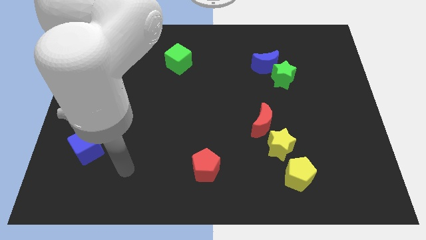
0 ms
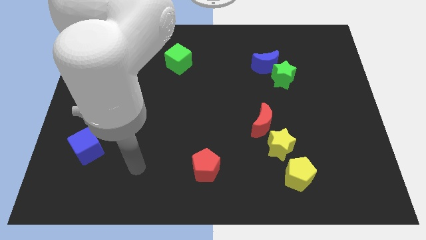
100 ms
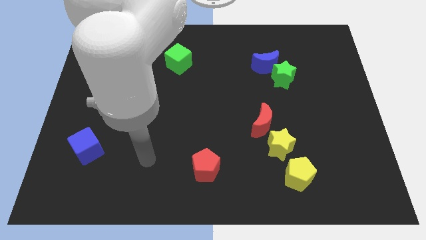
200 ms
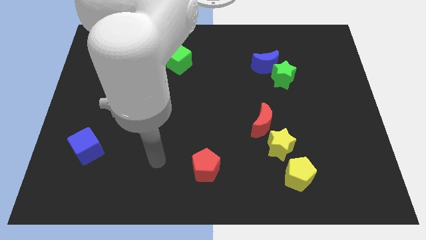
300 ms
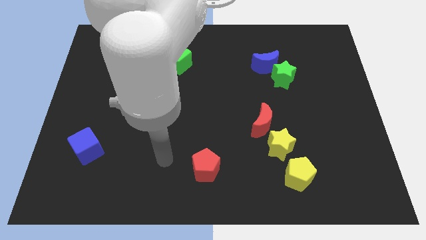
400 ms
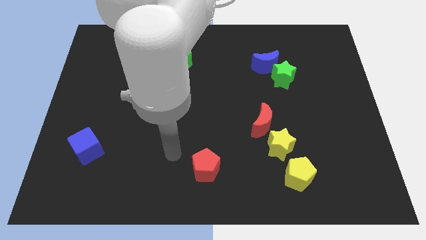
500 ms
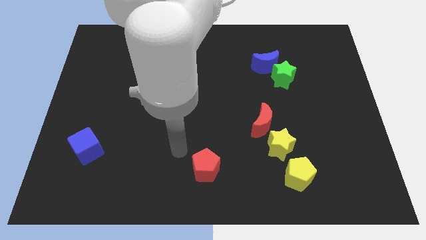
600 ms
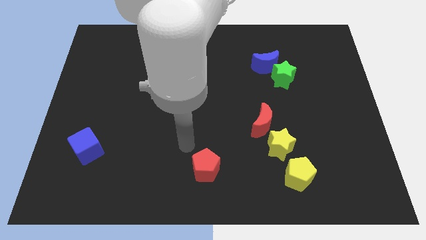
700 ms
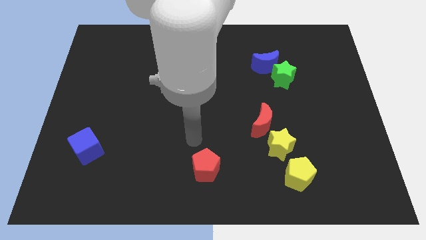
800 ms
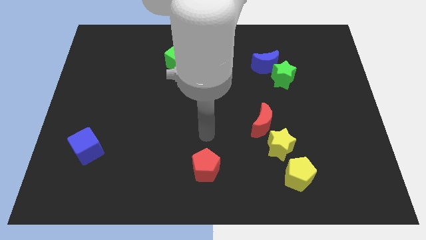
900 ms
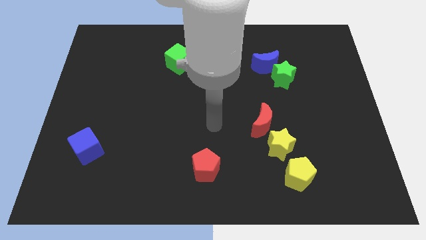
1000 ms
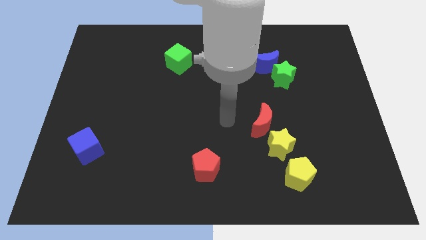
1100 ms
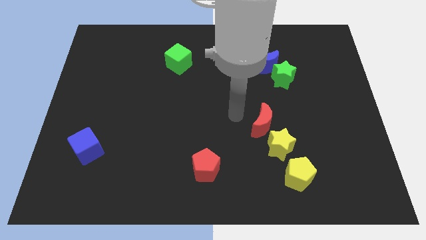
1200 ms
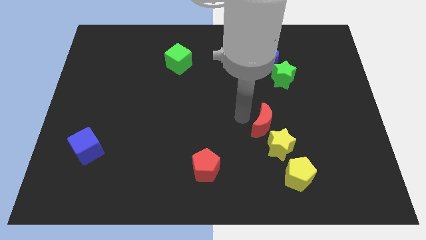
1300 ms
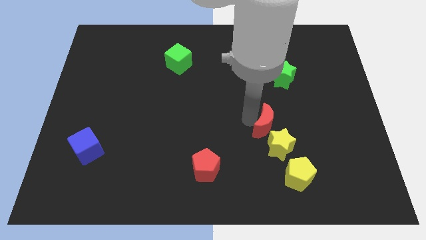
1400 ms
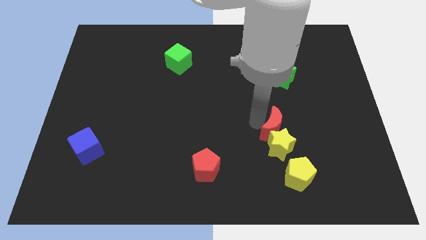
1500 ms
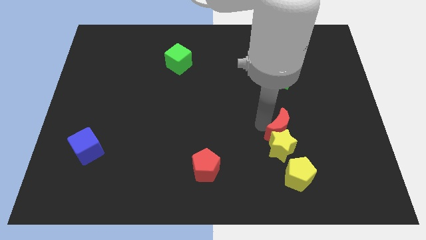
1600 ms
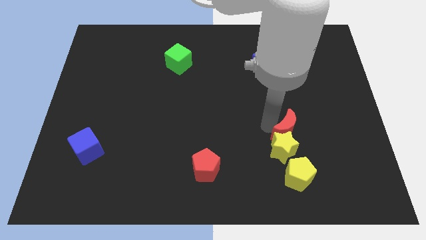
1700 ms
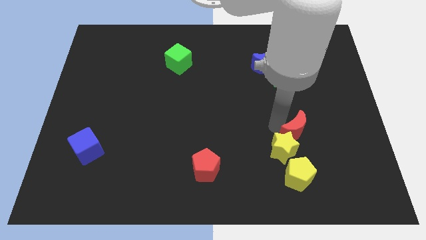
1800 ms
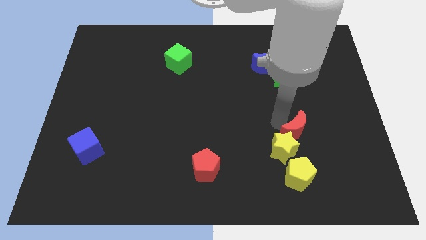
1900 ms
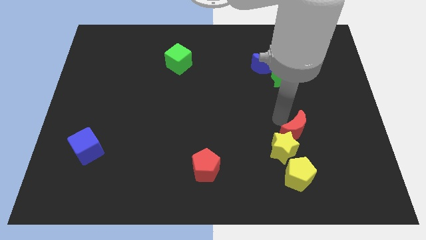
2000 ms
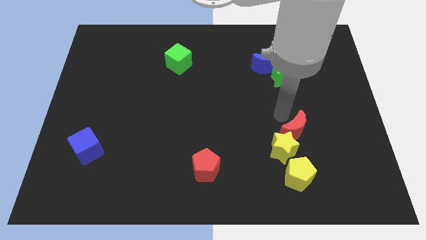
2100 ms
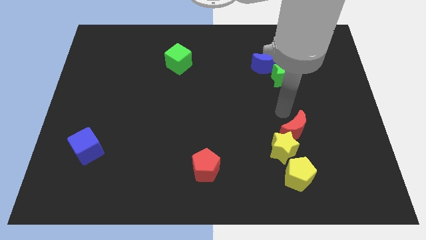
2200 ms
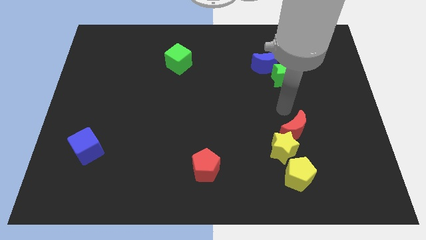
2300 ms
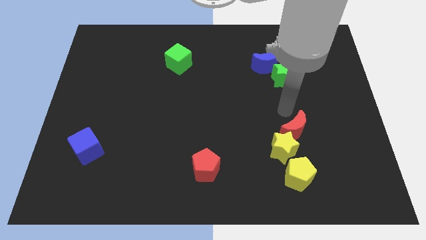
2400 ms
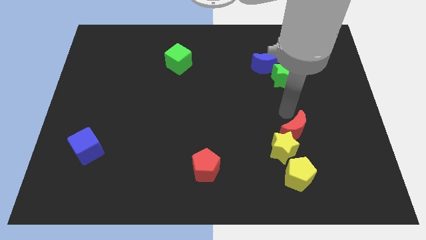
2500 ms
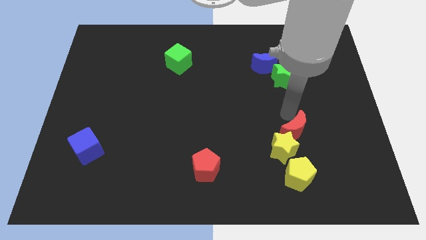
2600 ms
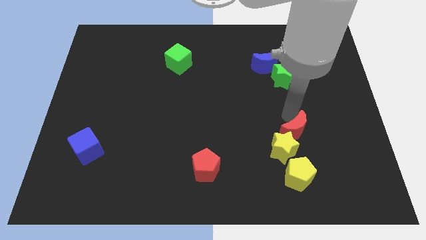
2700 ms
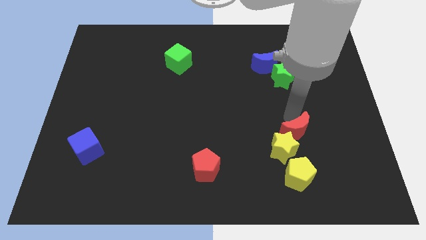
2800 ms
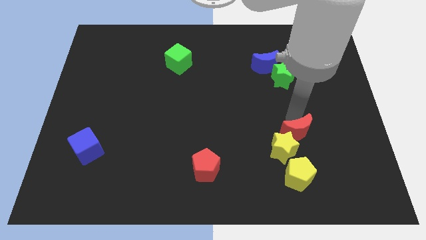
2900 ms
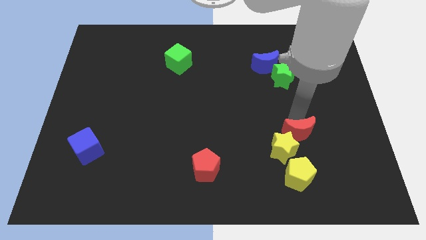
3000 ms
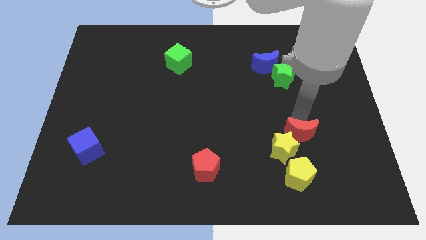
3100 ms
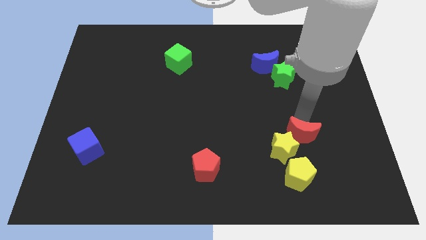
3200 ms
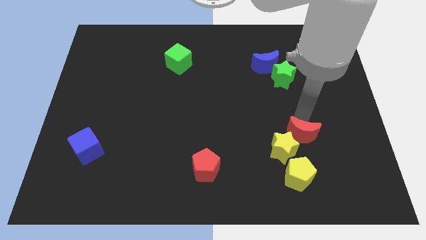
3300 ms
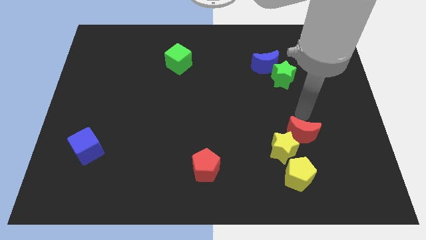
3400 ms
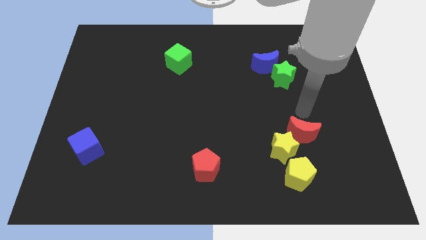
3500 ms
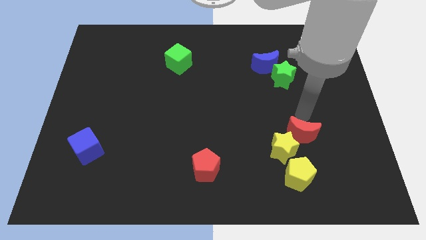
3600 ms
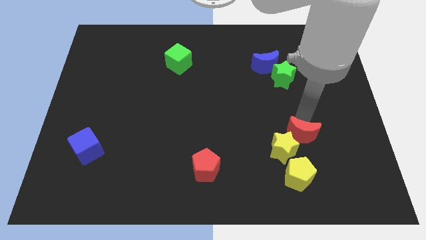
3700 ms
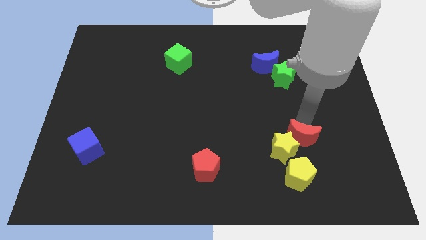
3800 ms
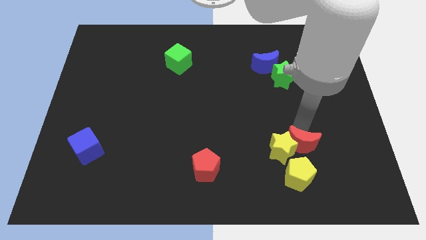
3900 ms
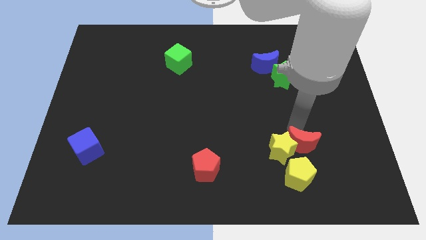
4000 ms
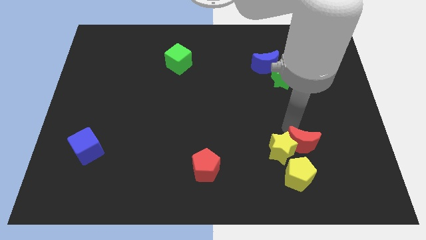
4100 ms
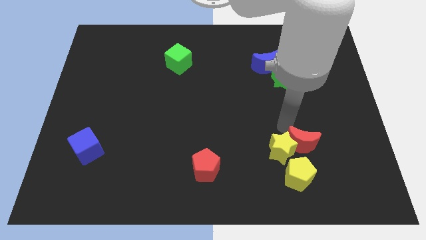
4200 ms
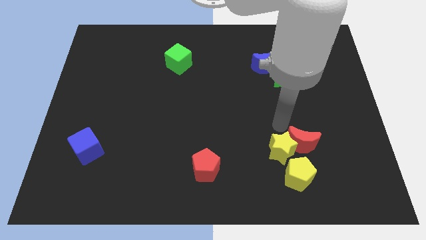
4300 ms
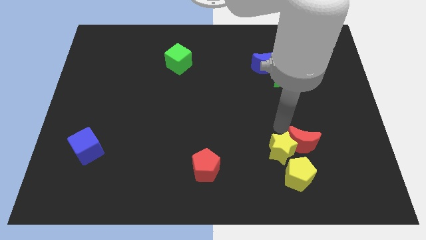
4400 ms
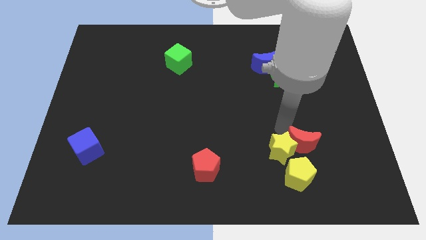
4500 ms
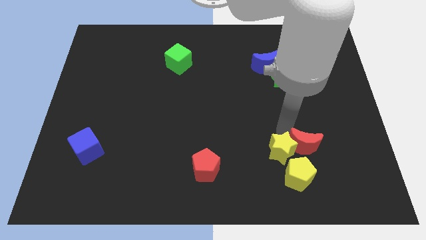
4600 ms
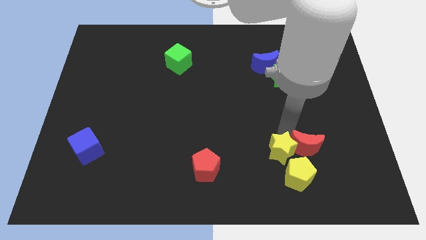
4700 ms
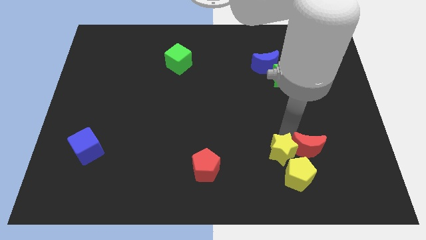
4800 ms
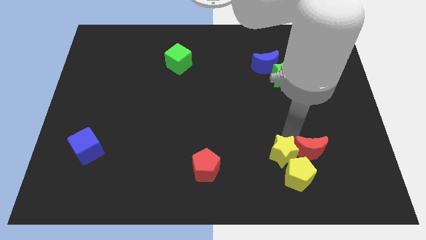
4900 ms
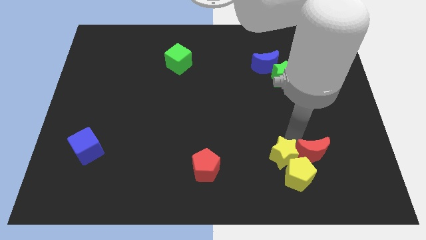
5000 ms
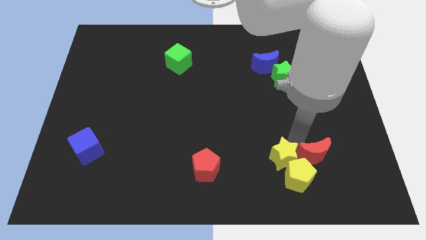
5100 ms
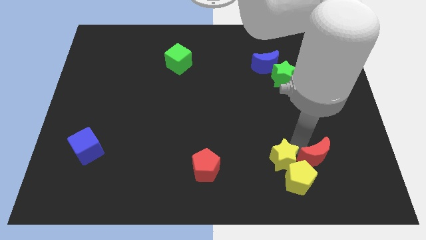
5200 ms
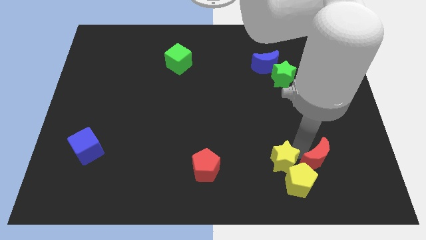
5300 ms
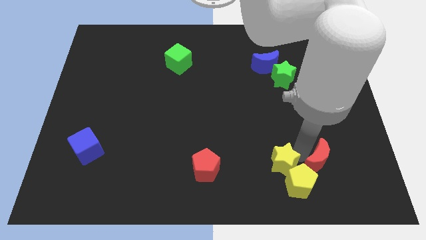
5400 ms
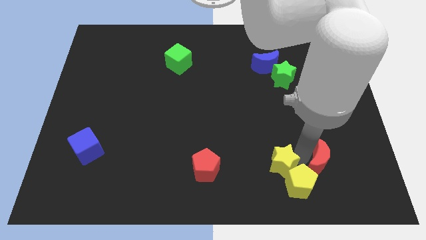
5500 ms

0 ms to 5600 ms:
slide the red moon just right of the yellow pentagon

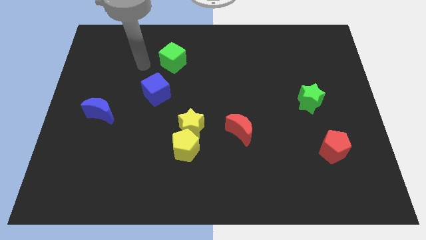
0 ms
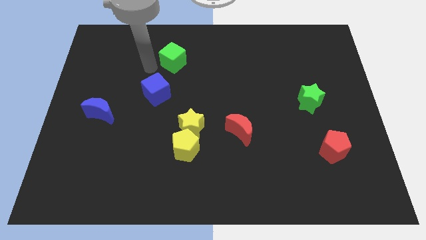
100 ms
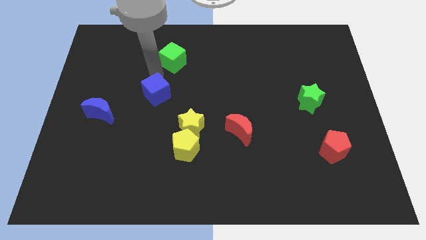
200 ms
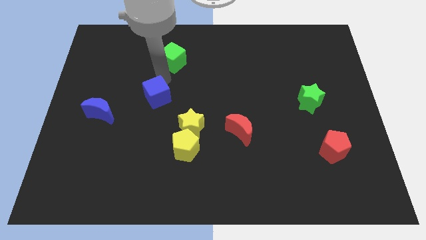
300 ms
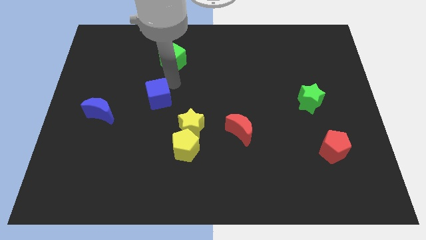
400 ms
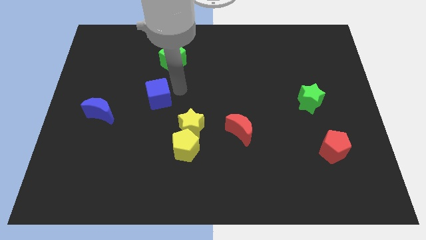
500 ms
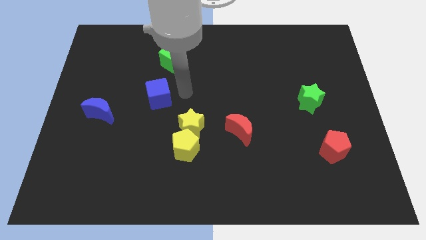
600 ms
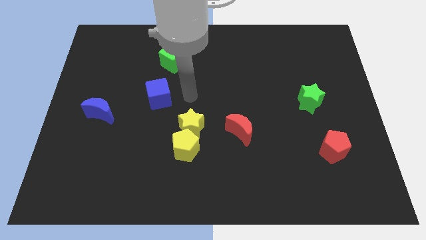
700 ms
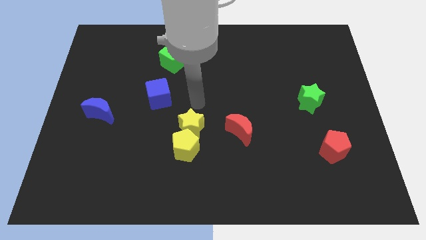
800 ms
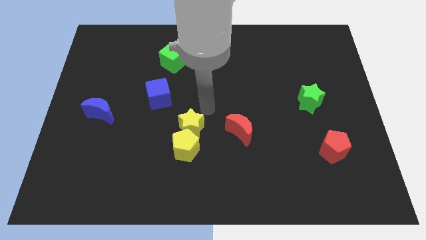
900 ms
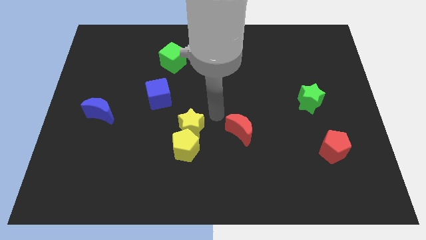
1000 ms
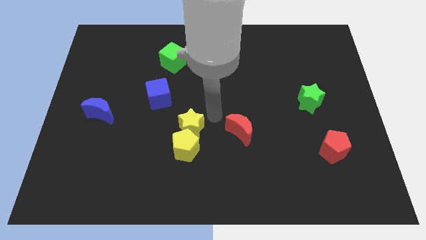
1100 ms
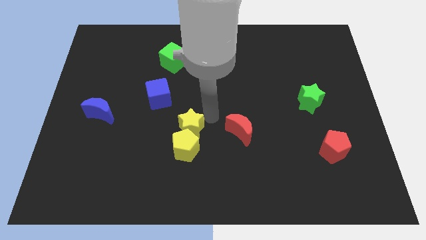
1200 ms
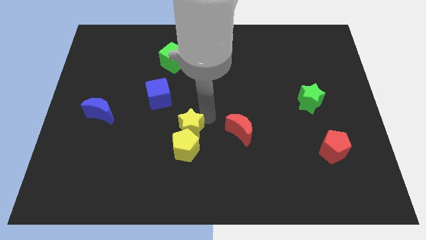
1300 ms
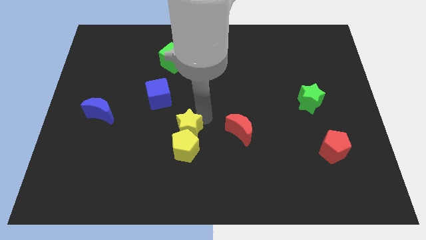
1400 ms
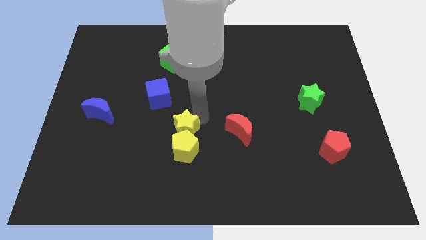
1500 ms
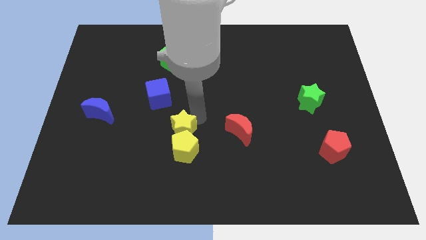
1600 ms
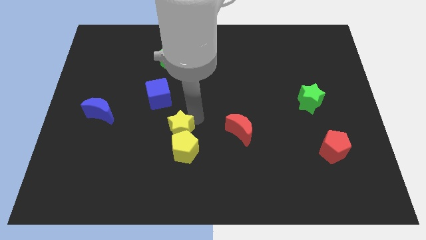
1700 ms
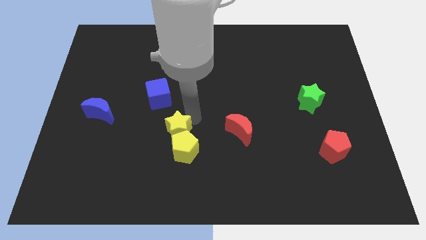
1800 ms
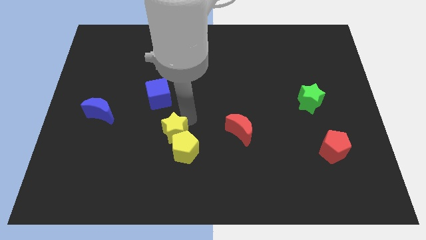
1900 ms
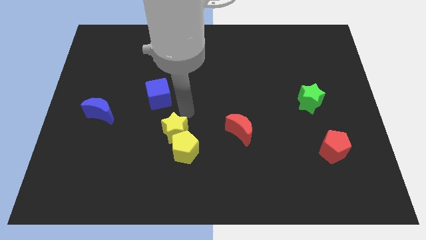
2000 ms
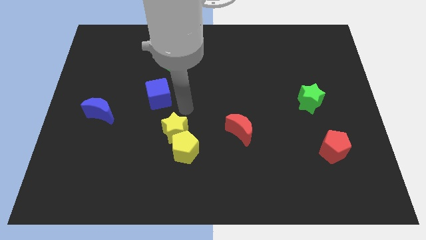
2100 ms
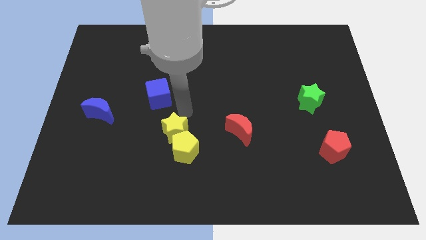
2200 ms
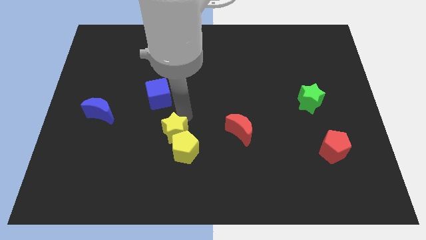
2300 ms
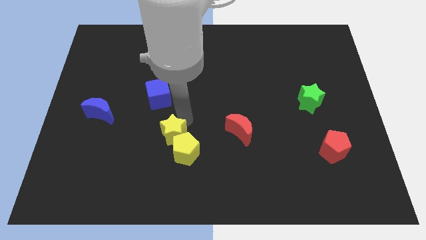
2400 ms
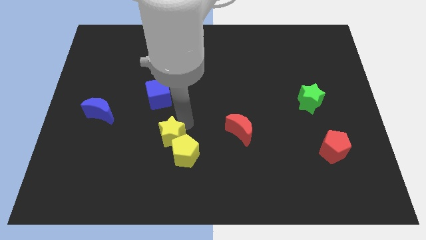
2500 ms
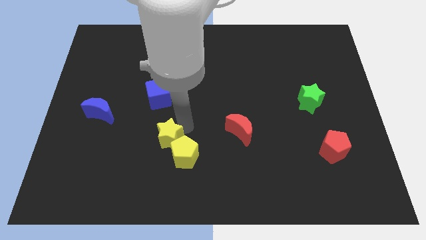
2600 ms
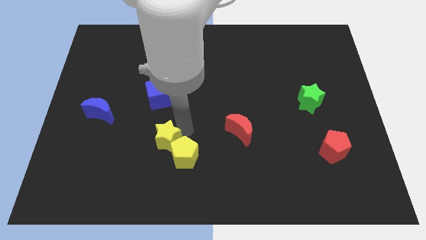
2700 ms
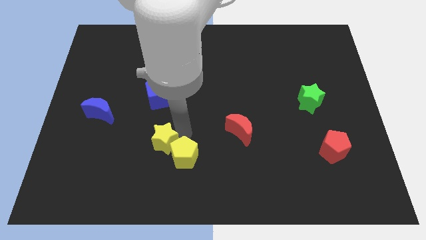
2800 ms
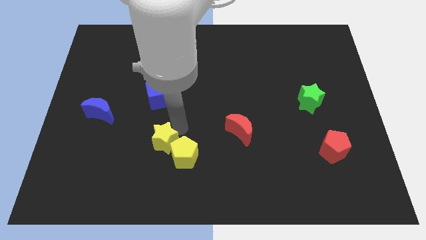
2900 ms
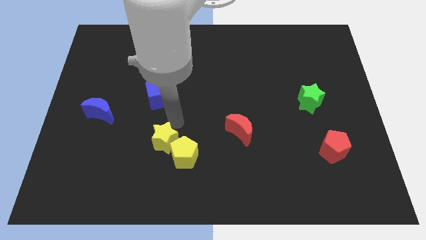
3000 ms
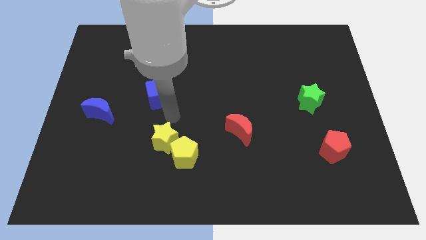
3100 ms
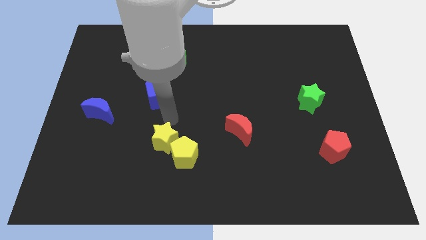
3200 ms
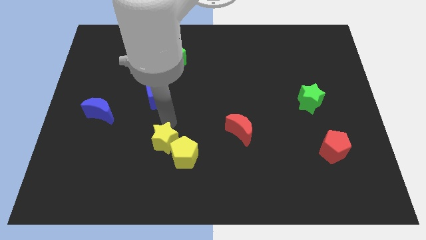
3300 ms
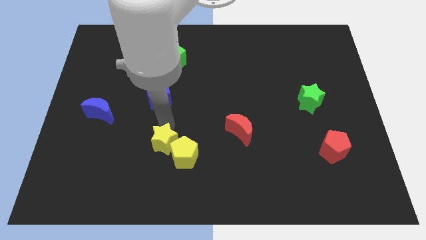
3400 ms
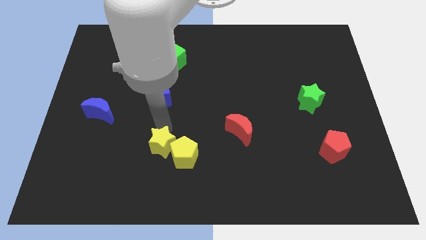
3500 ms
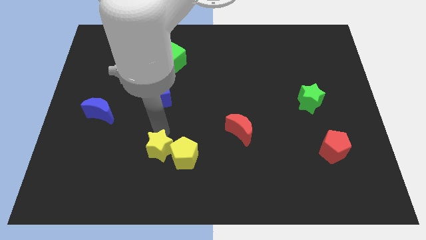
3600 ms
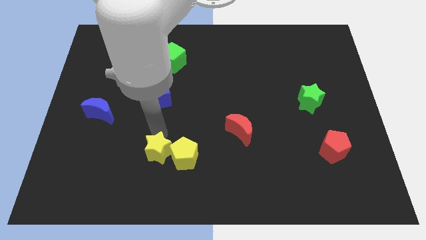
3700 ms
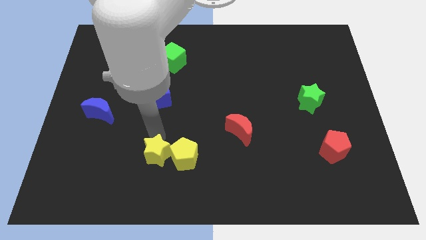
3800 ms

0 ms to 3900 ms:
slide the yellow star diagonally down and to the left of the yellow pentagon
